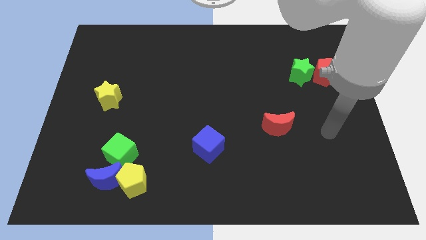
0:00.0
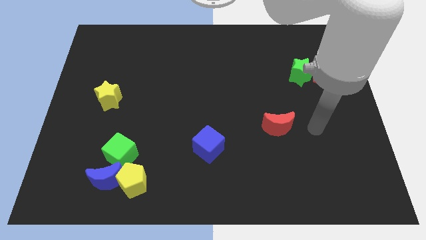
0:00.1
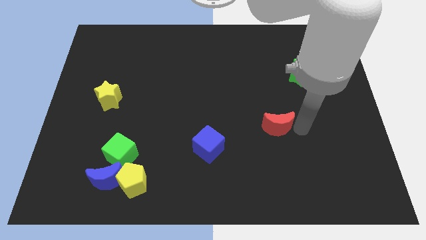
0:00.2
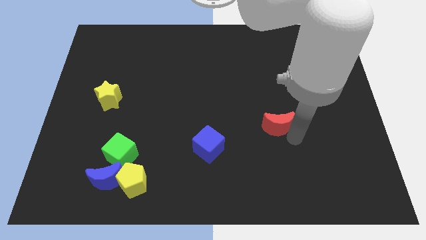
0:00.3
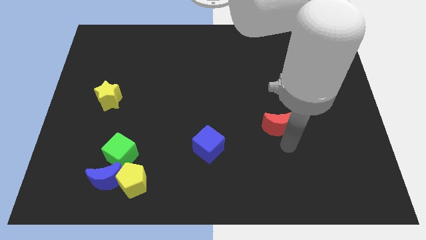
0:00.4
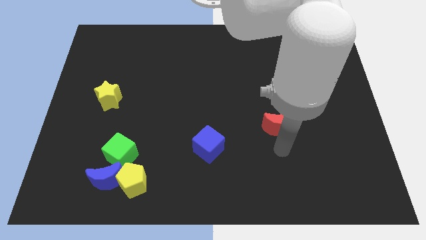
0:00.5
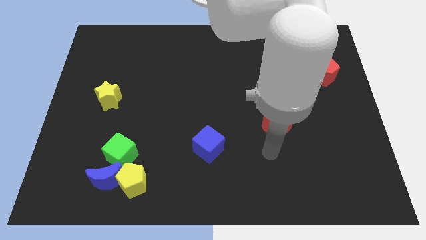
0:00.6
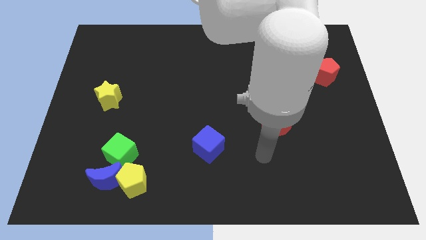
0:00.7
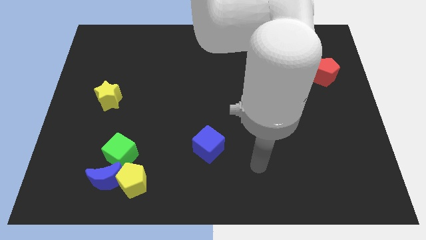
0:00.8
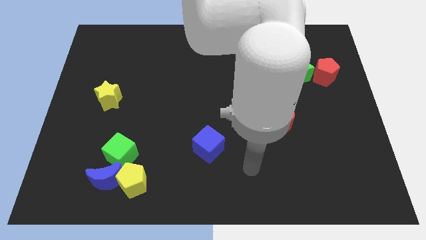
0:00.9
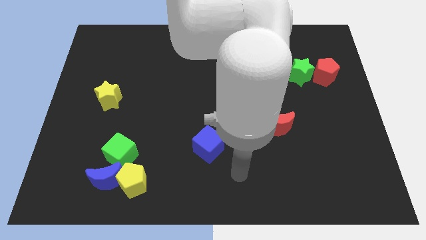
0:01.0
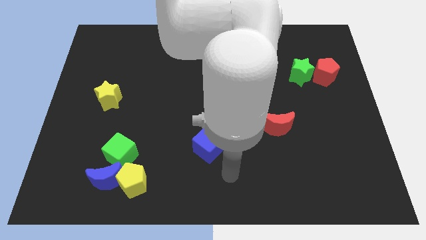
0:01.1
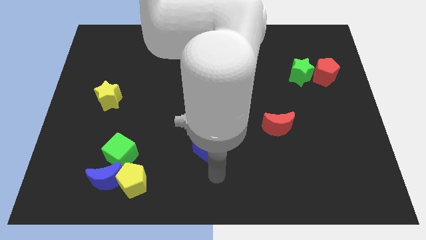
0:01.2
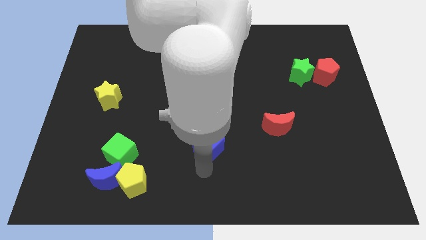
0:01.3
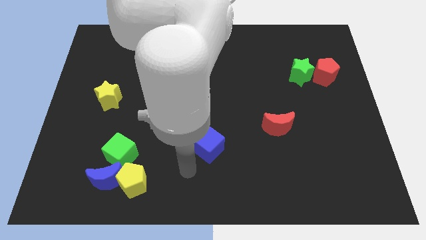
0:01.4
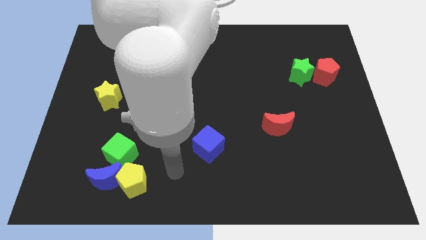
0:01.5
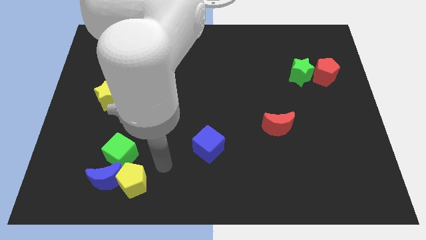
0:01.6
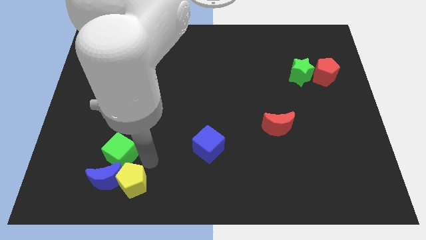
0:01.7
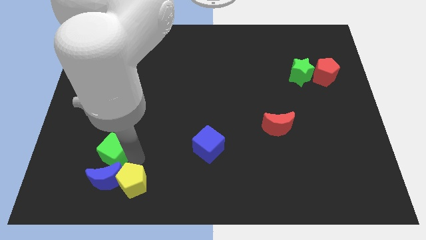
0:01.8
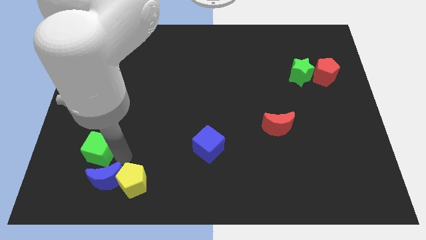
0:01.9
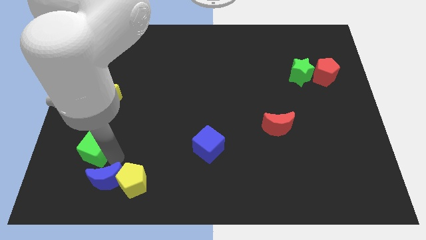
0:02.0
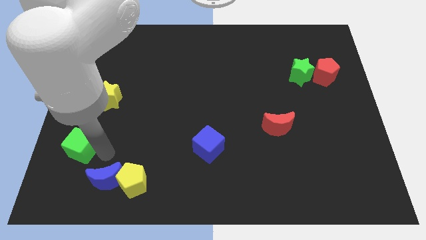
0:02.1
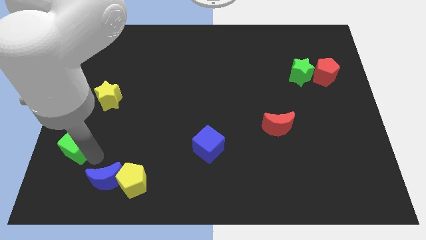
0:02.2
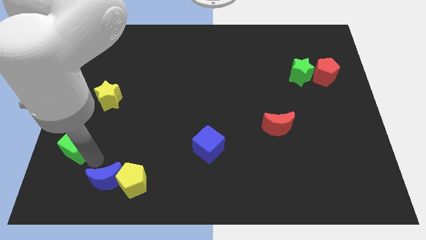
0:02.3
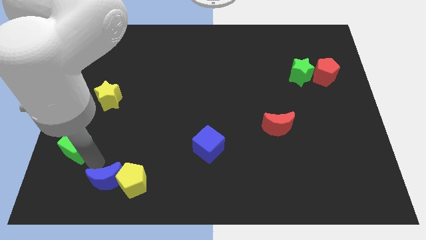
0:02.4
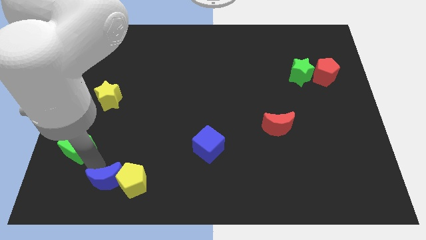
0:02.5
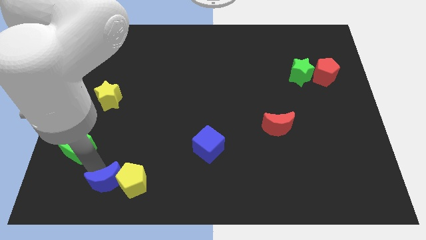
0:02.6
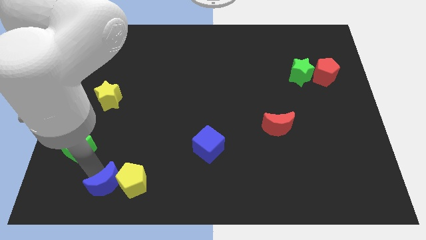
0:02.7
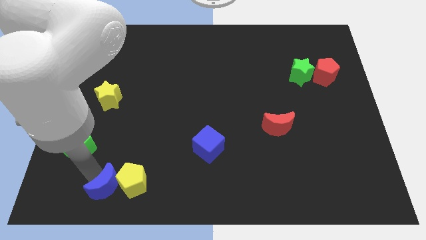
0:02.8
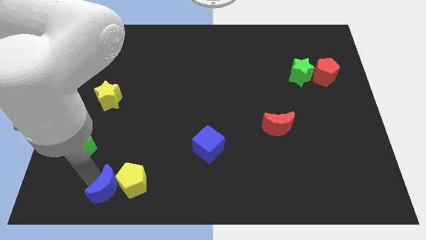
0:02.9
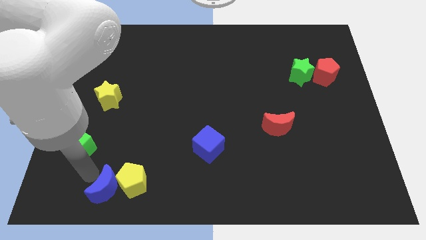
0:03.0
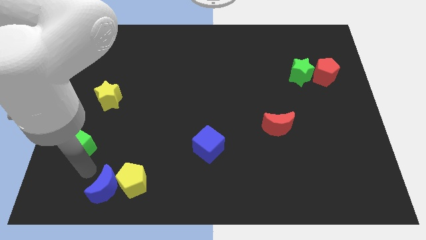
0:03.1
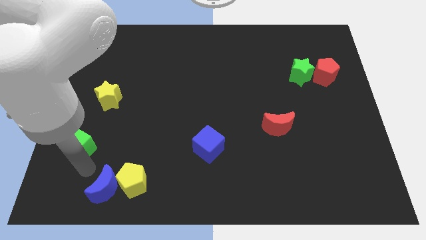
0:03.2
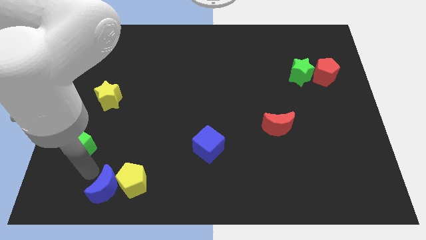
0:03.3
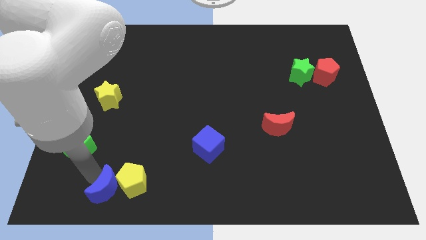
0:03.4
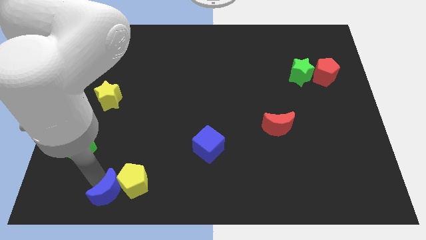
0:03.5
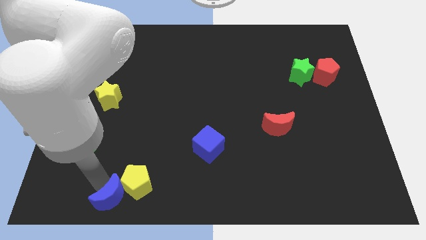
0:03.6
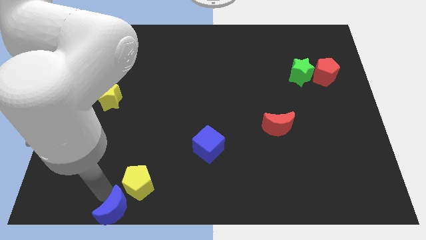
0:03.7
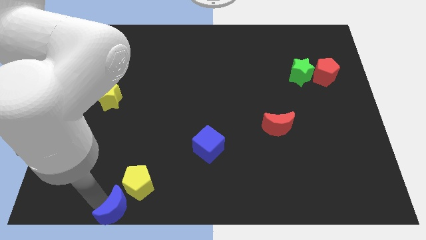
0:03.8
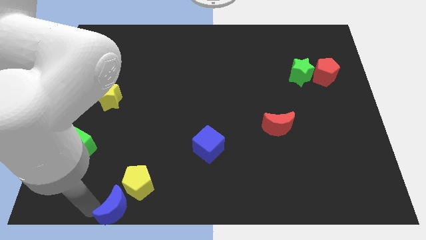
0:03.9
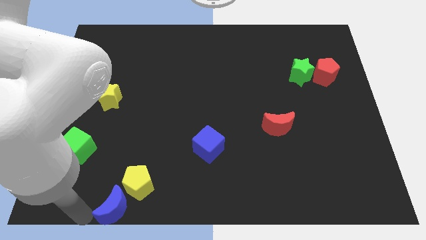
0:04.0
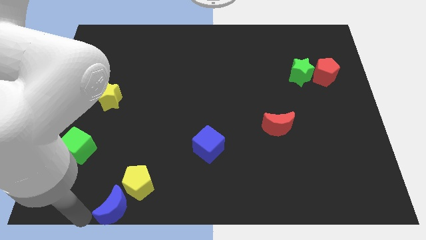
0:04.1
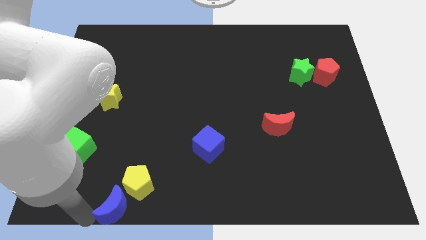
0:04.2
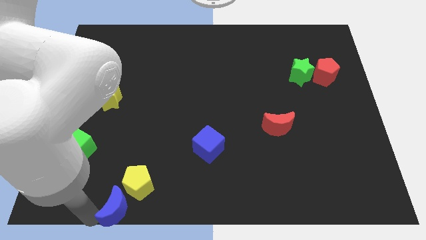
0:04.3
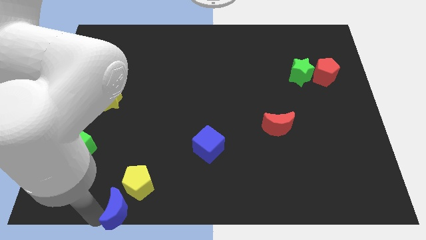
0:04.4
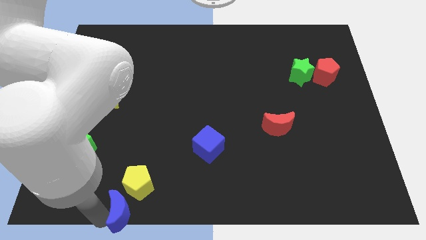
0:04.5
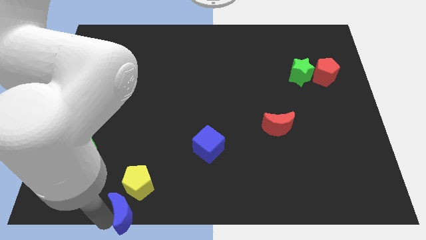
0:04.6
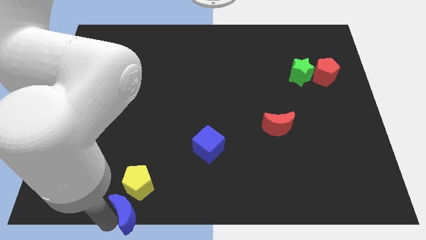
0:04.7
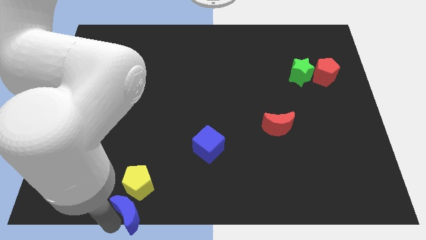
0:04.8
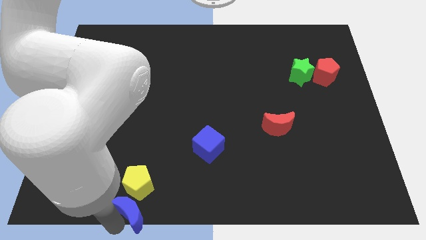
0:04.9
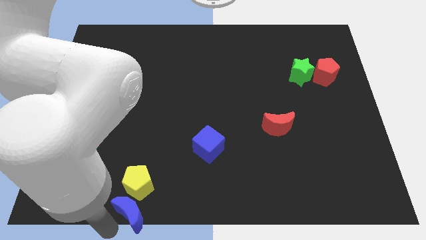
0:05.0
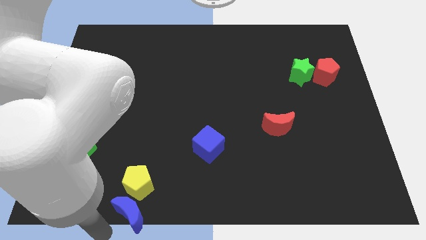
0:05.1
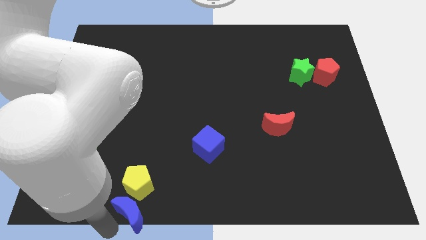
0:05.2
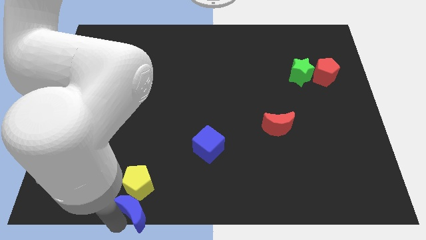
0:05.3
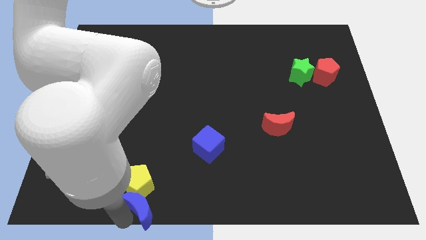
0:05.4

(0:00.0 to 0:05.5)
put the blue moon to the bottom

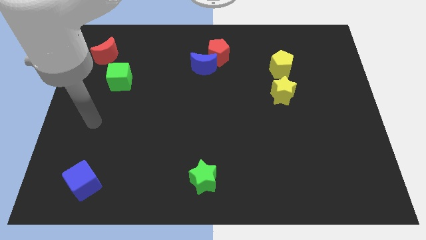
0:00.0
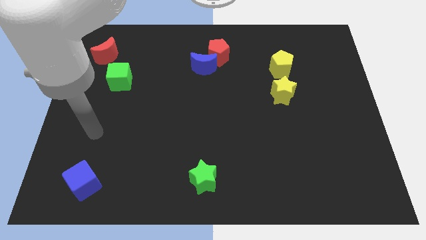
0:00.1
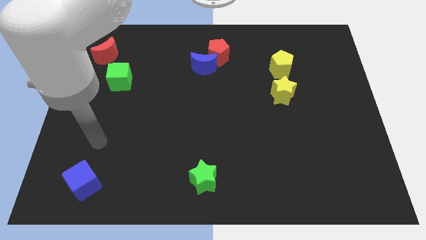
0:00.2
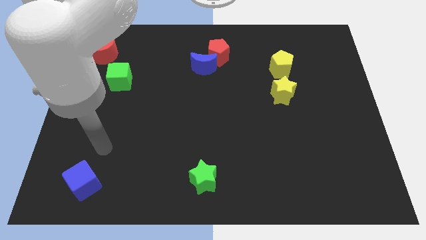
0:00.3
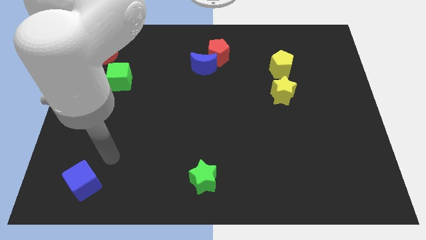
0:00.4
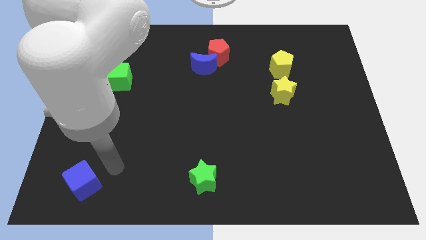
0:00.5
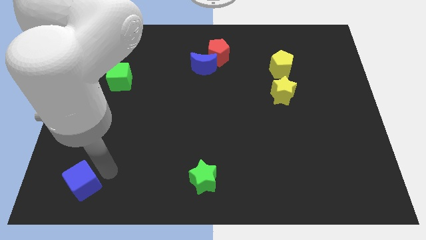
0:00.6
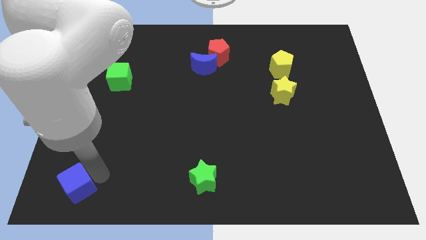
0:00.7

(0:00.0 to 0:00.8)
move the blue cube to the lower left corner
